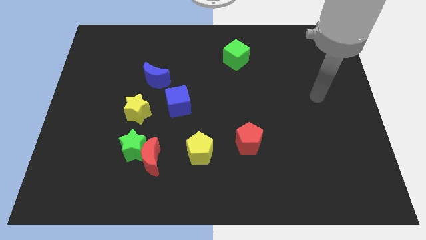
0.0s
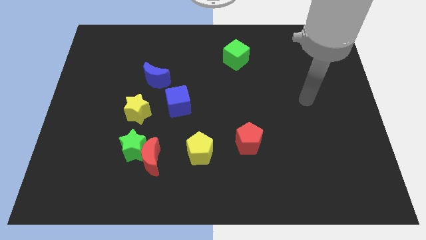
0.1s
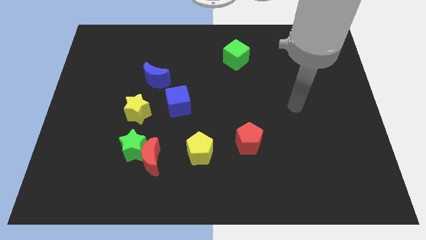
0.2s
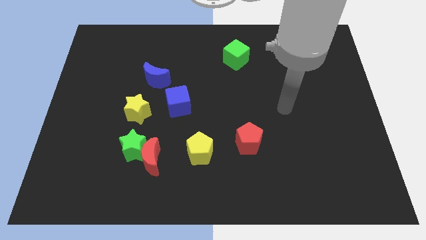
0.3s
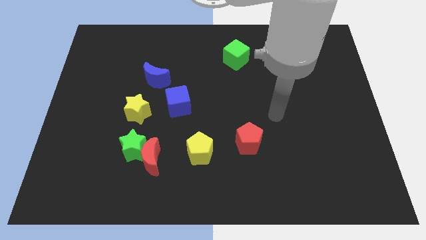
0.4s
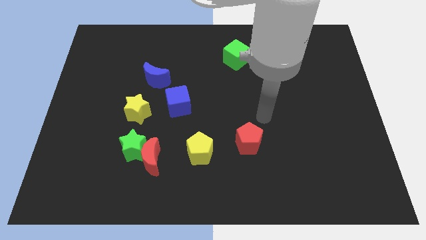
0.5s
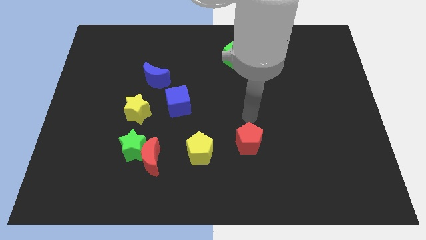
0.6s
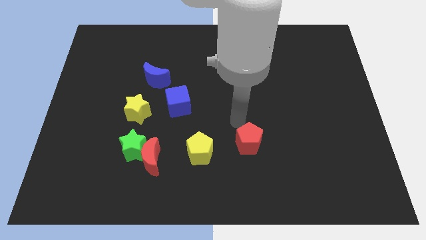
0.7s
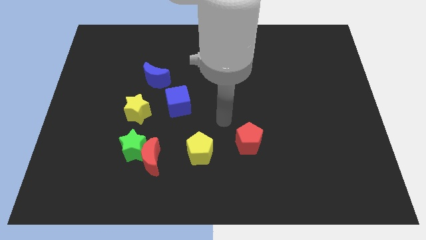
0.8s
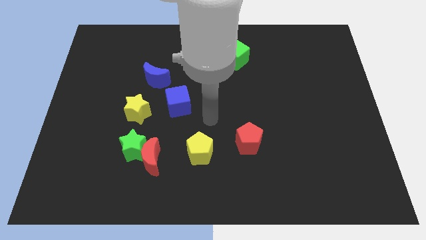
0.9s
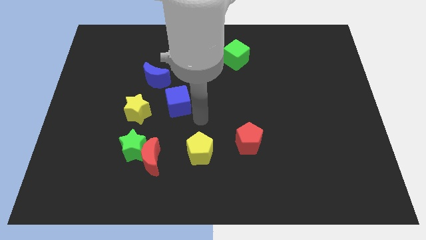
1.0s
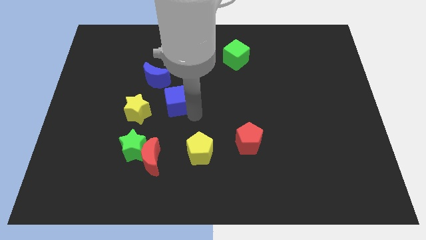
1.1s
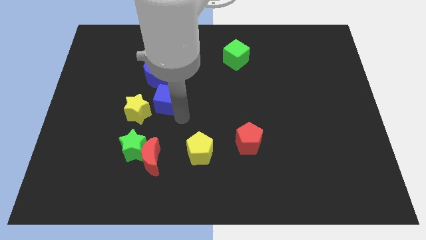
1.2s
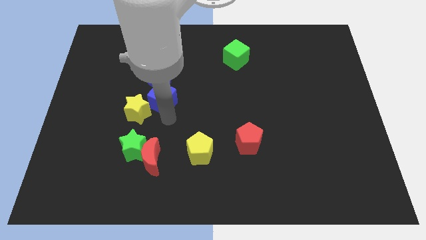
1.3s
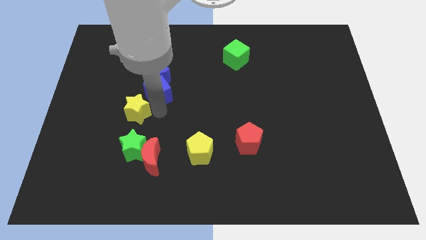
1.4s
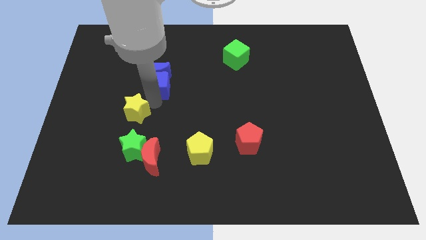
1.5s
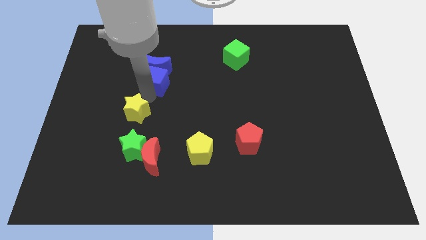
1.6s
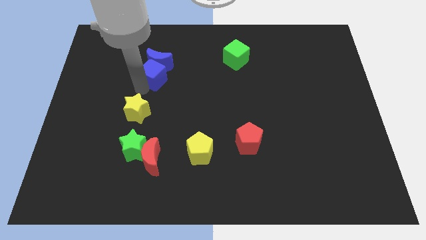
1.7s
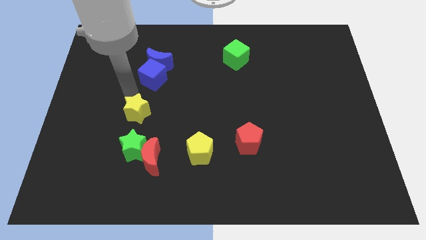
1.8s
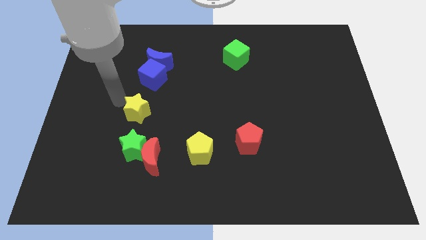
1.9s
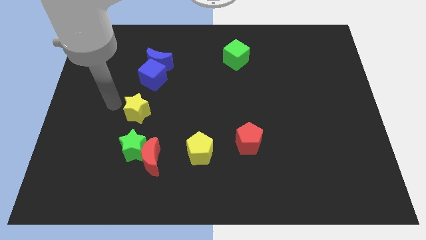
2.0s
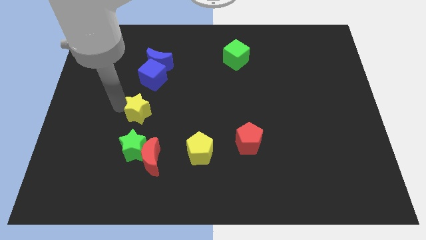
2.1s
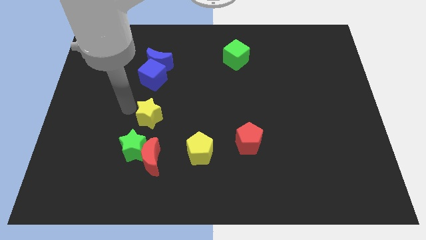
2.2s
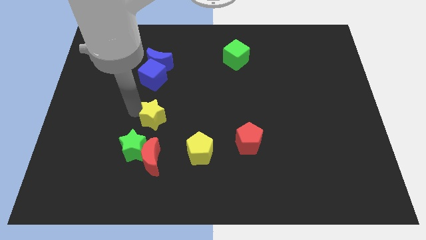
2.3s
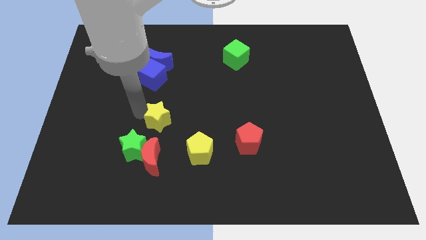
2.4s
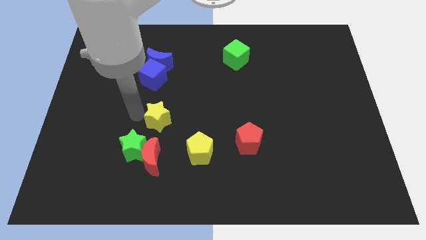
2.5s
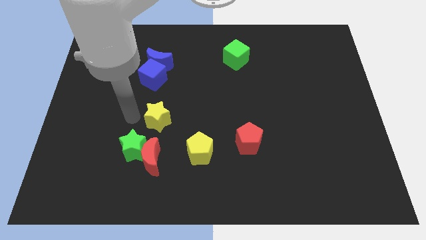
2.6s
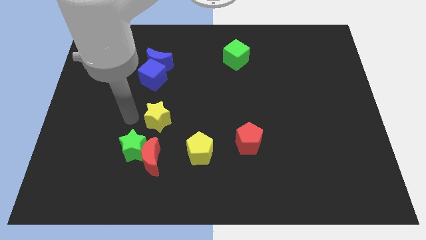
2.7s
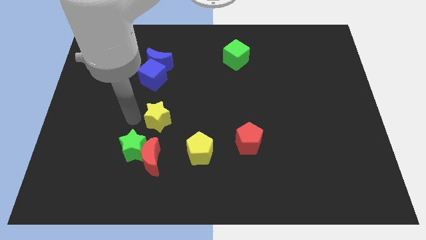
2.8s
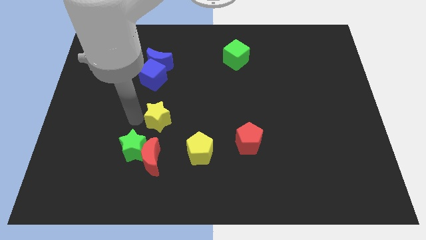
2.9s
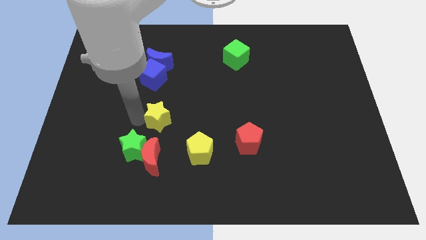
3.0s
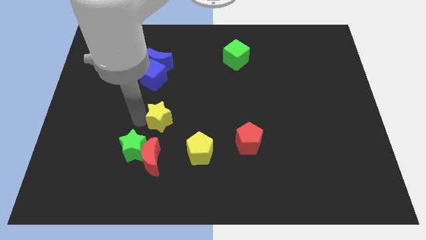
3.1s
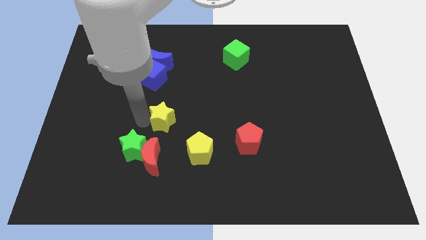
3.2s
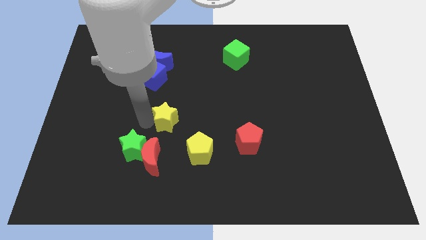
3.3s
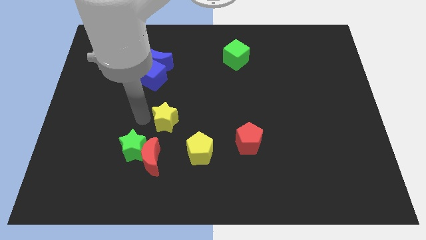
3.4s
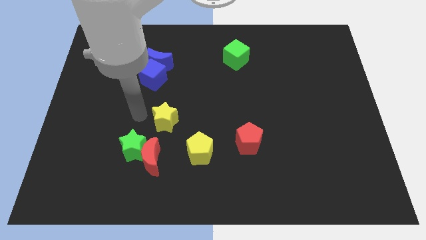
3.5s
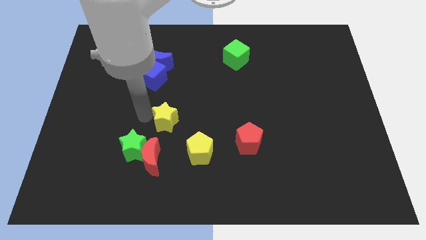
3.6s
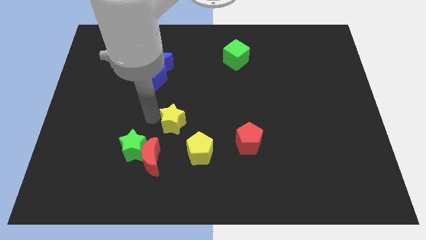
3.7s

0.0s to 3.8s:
slightly slide the yellow star to the right

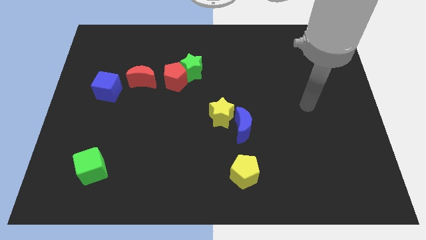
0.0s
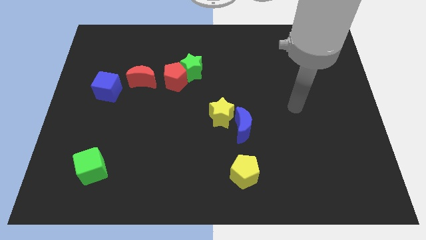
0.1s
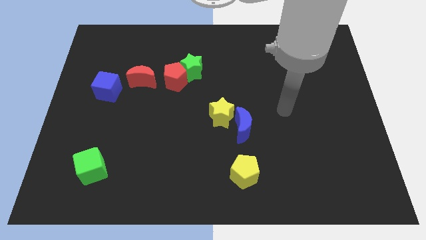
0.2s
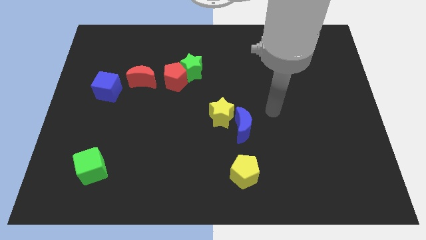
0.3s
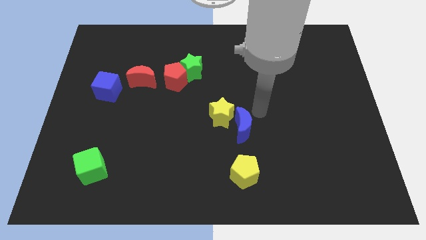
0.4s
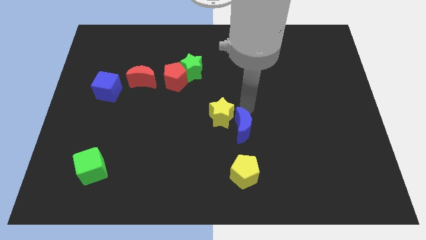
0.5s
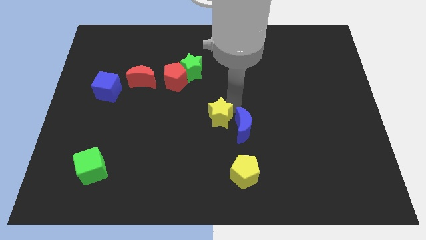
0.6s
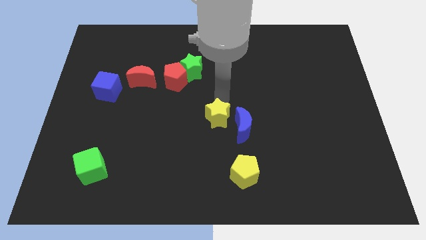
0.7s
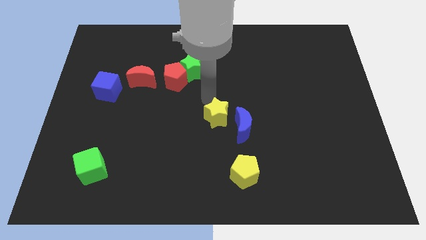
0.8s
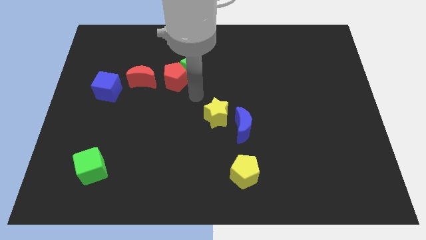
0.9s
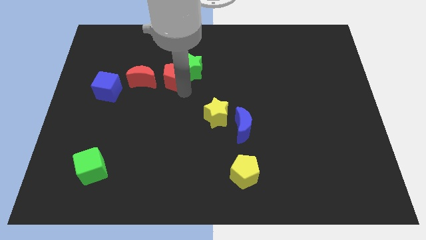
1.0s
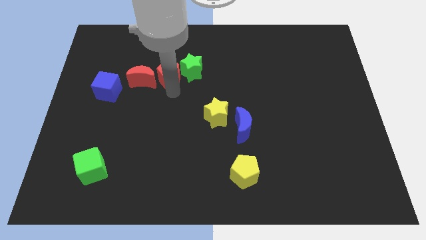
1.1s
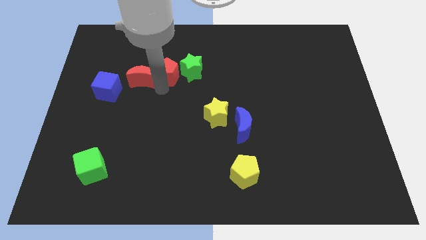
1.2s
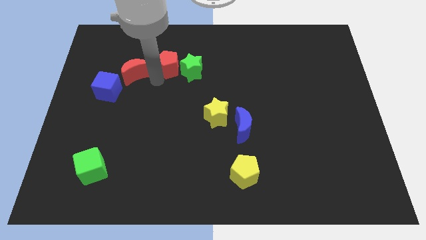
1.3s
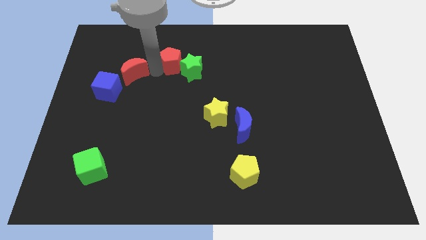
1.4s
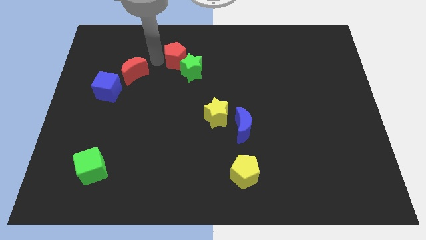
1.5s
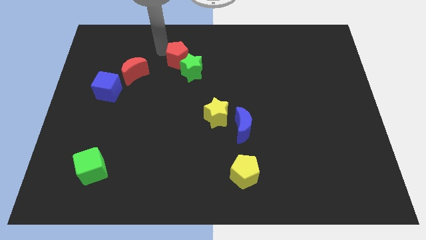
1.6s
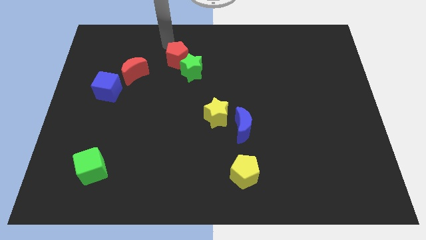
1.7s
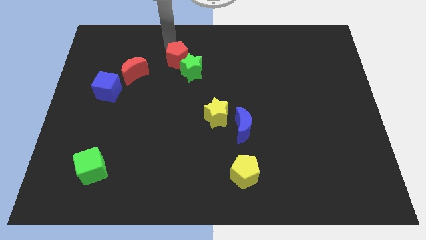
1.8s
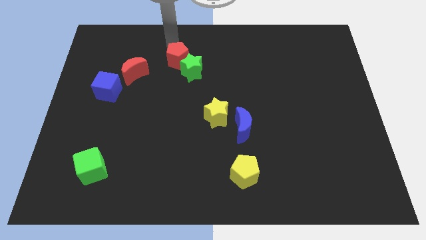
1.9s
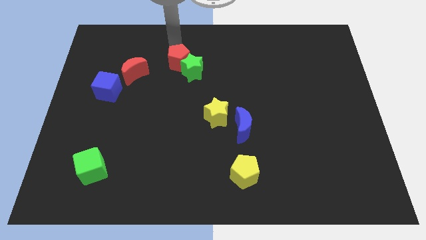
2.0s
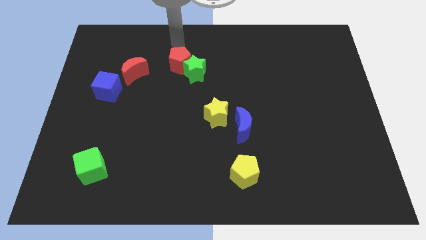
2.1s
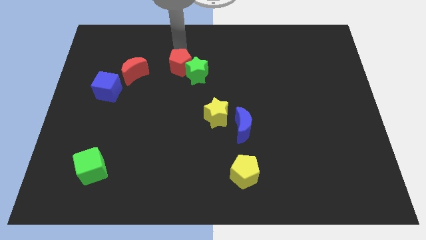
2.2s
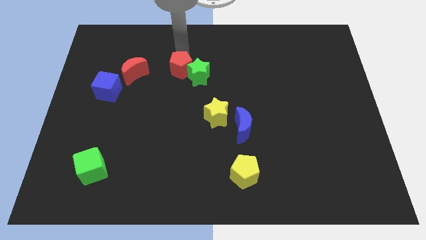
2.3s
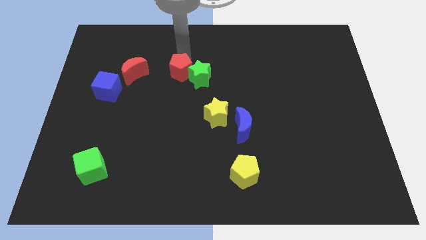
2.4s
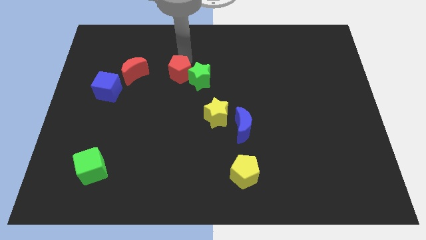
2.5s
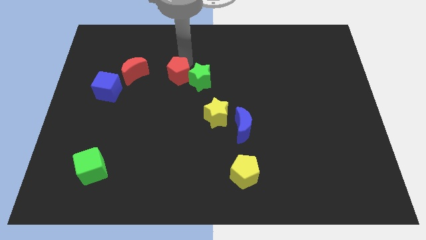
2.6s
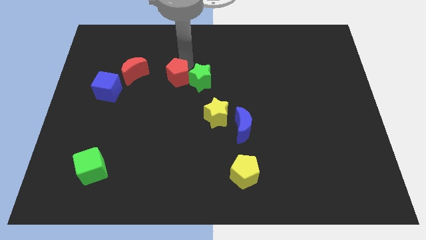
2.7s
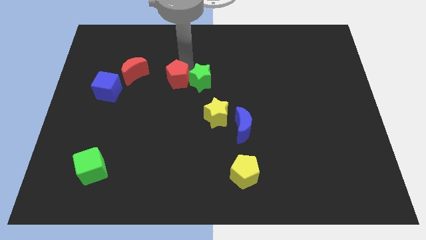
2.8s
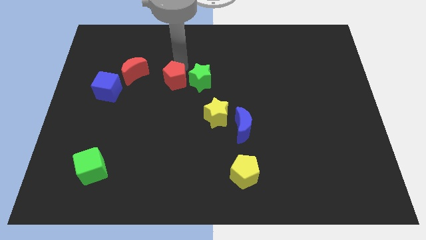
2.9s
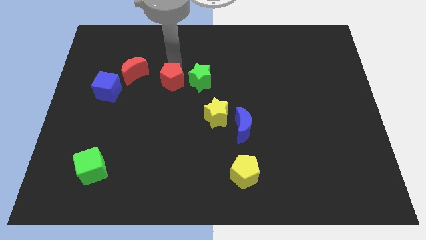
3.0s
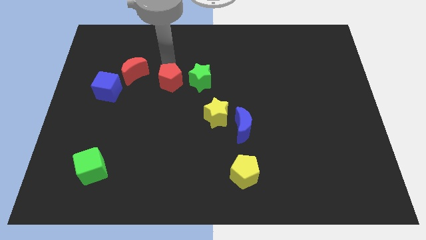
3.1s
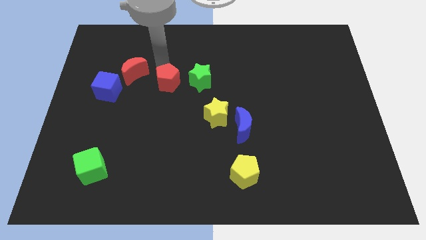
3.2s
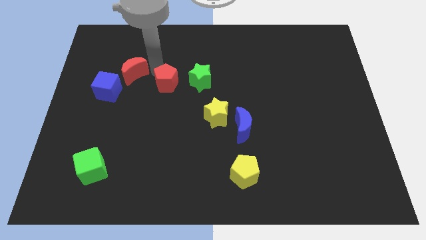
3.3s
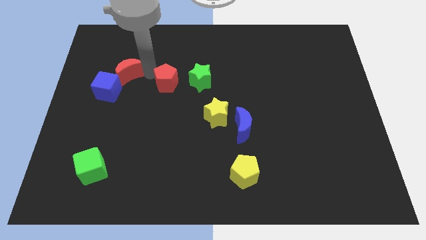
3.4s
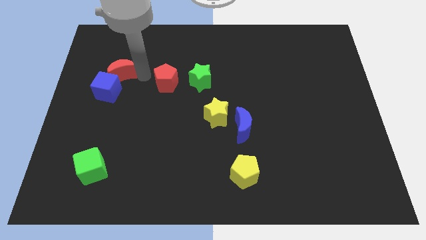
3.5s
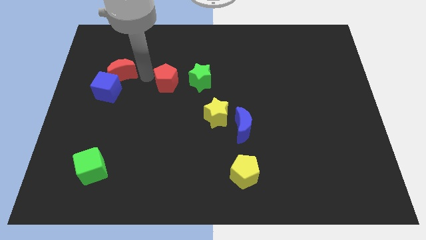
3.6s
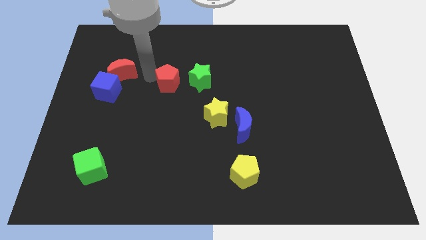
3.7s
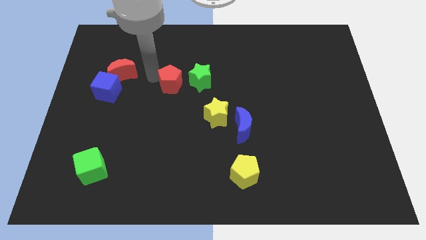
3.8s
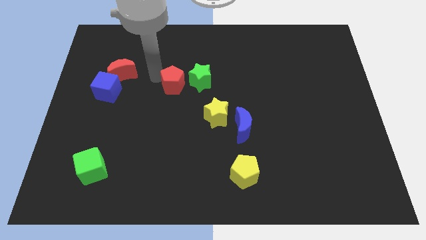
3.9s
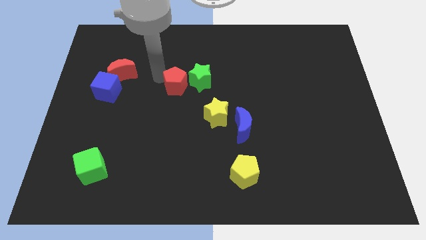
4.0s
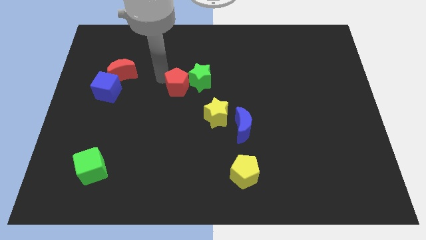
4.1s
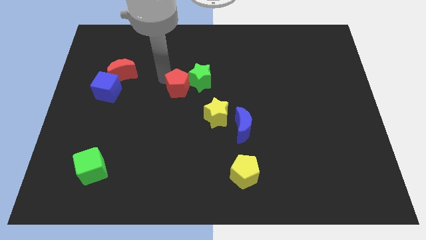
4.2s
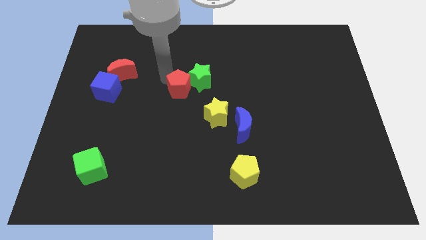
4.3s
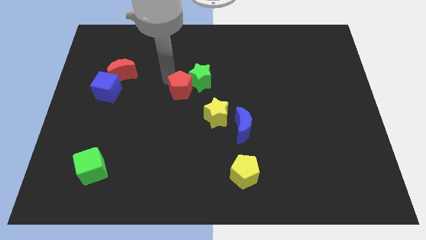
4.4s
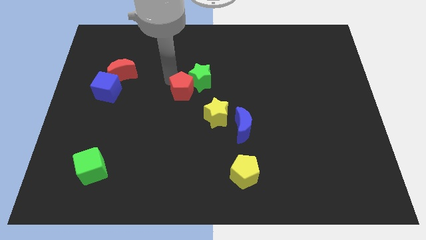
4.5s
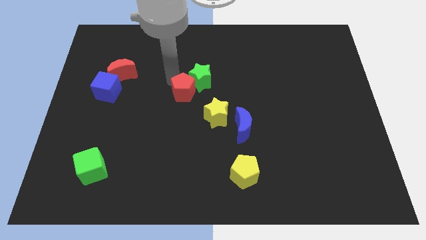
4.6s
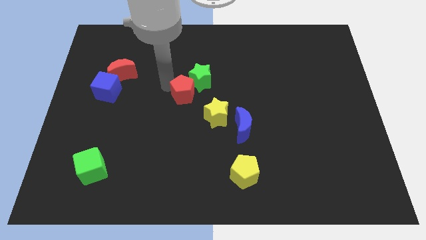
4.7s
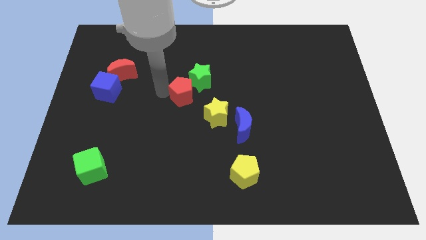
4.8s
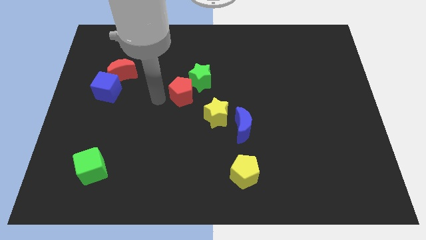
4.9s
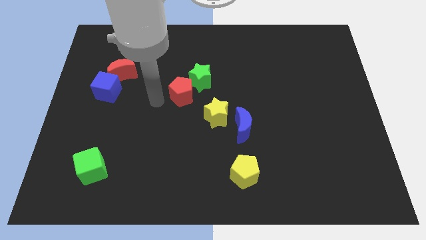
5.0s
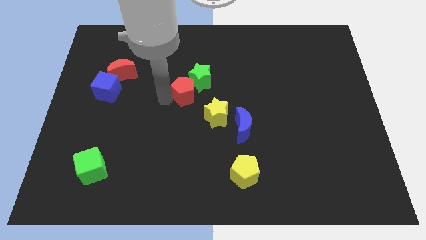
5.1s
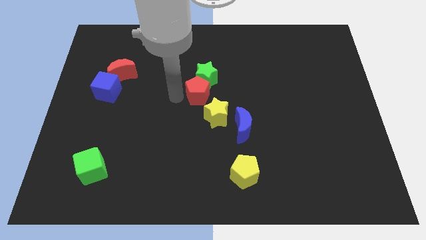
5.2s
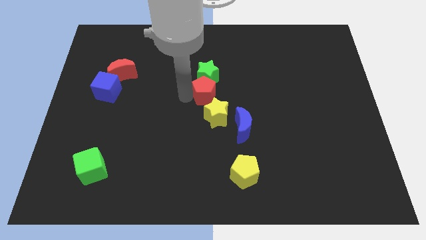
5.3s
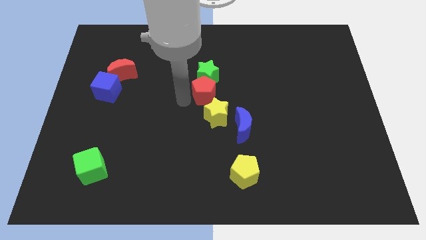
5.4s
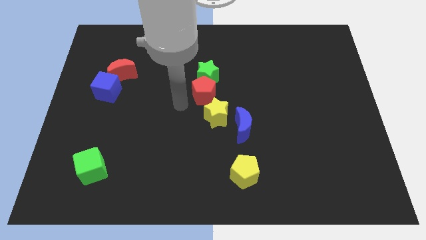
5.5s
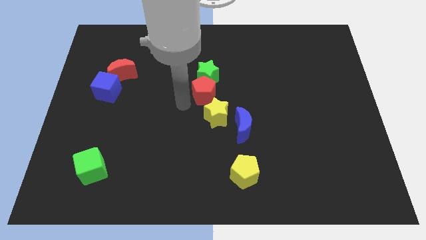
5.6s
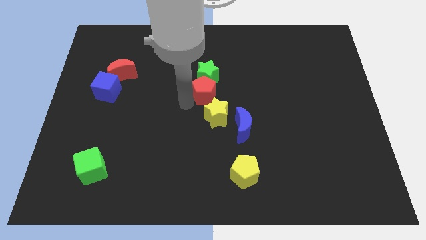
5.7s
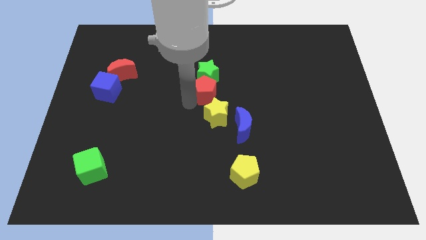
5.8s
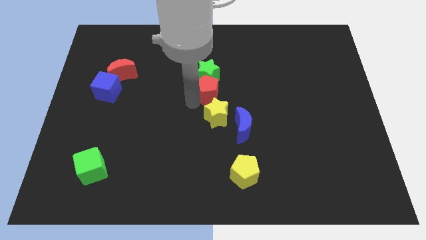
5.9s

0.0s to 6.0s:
push the red pentagon slightly right
